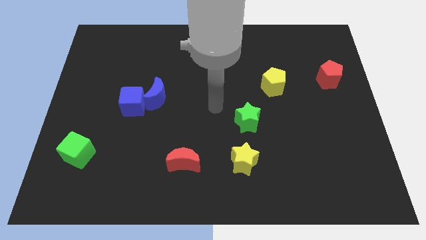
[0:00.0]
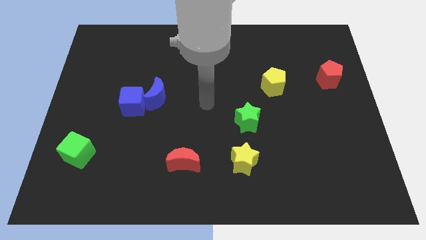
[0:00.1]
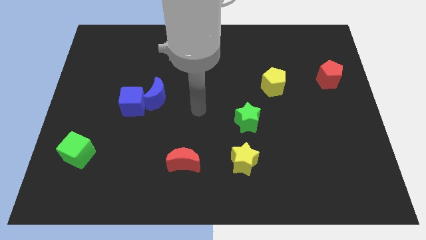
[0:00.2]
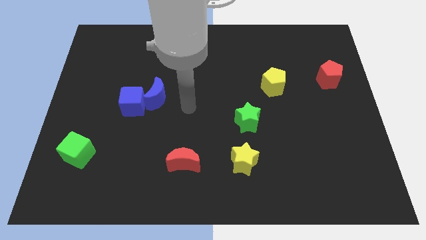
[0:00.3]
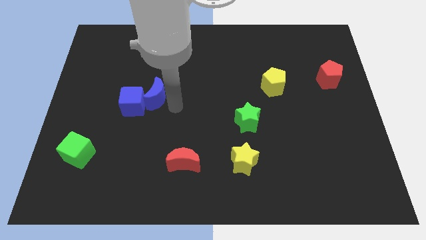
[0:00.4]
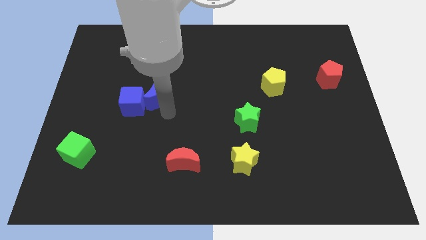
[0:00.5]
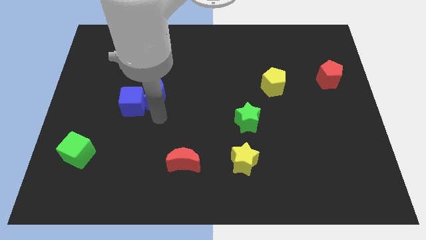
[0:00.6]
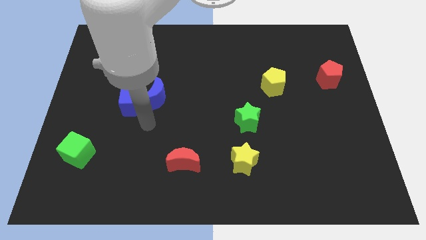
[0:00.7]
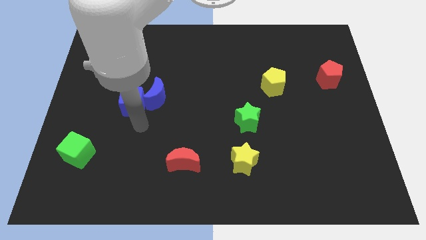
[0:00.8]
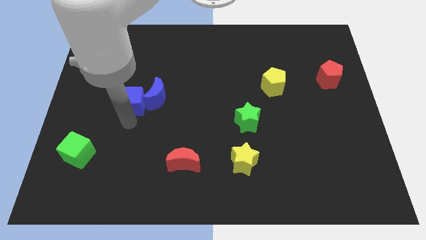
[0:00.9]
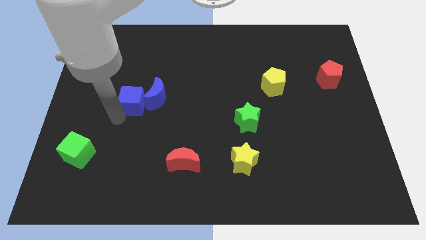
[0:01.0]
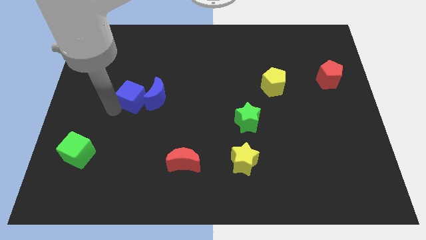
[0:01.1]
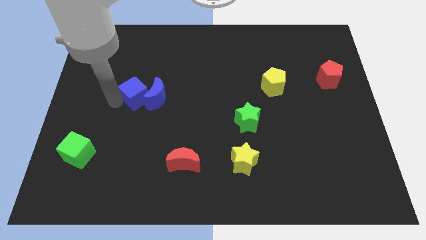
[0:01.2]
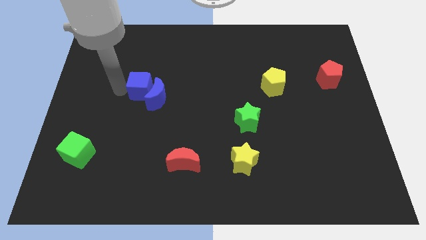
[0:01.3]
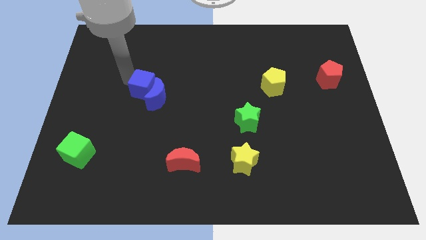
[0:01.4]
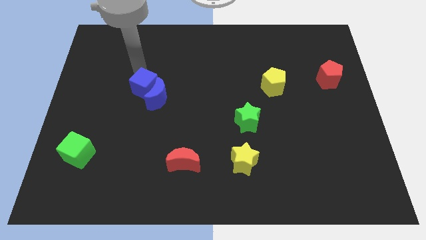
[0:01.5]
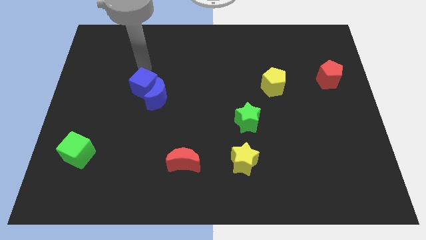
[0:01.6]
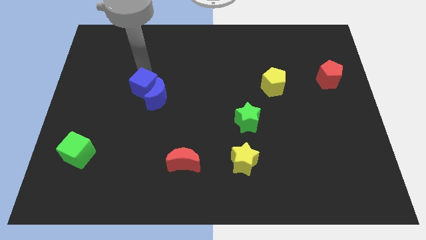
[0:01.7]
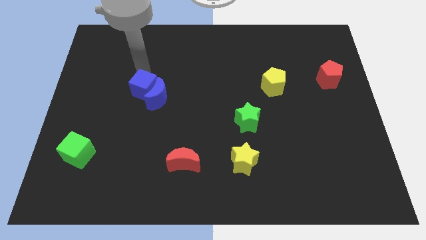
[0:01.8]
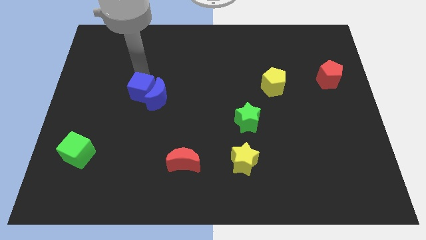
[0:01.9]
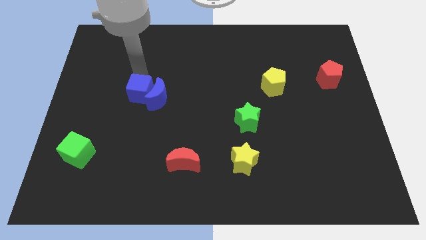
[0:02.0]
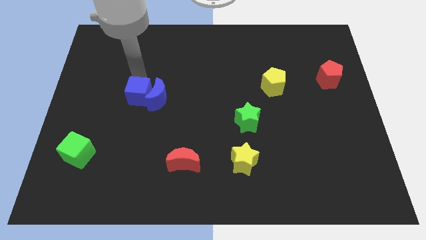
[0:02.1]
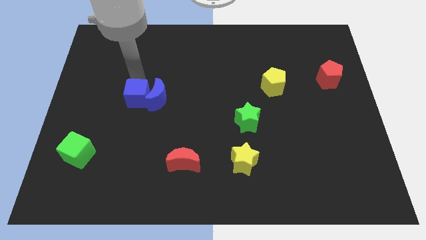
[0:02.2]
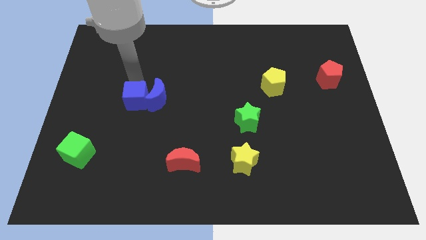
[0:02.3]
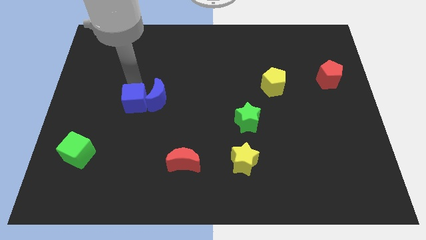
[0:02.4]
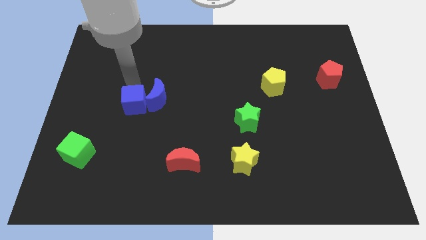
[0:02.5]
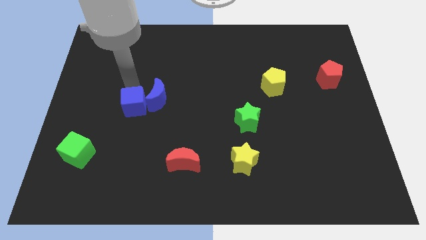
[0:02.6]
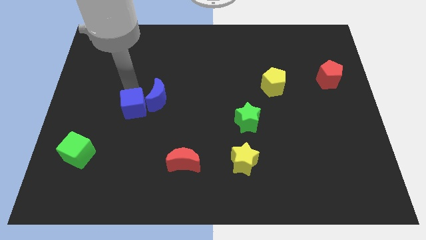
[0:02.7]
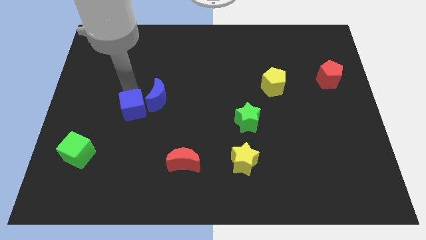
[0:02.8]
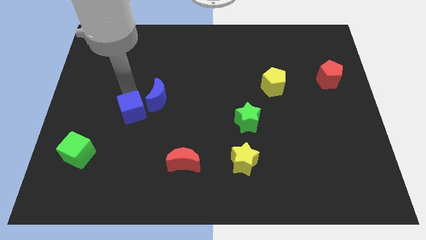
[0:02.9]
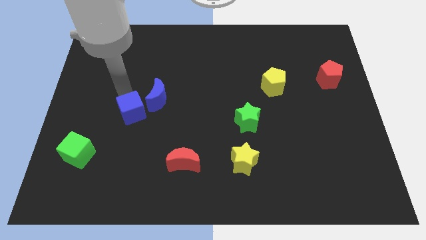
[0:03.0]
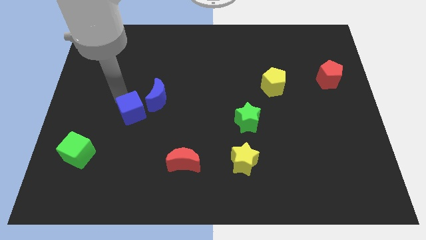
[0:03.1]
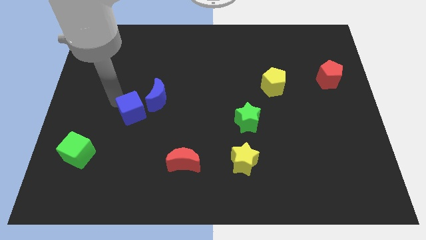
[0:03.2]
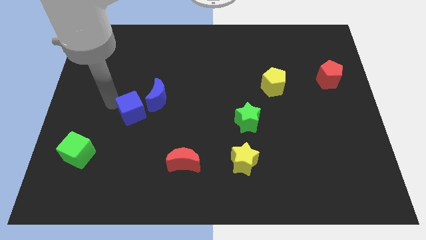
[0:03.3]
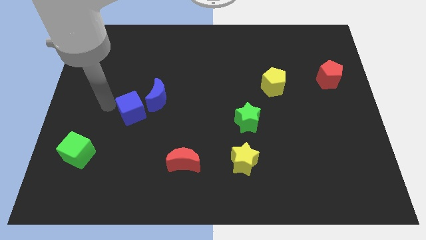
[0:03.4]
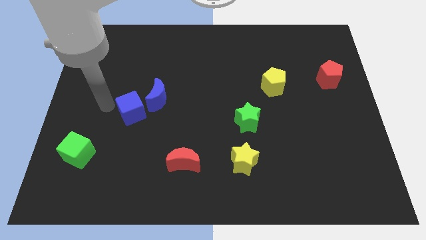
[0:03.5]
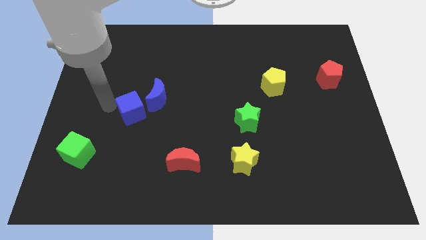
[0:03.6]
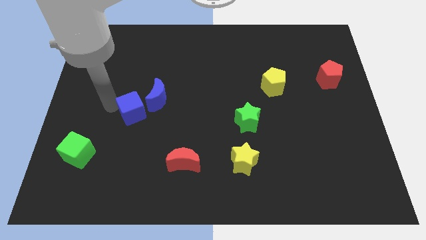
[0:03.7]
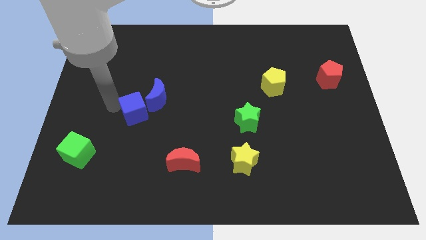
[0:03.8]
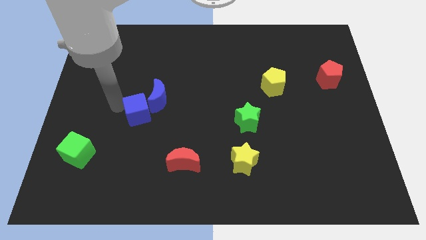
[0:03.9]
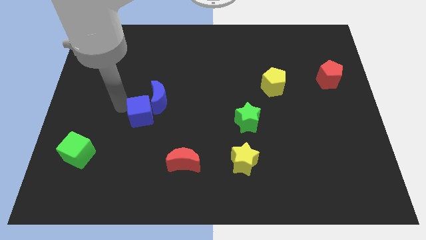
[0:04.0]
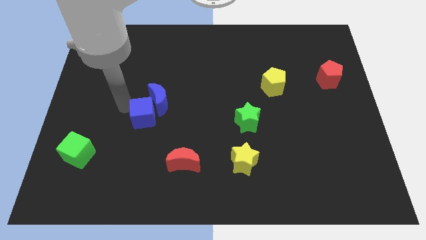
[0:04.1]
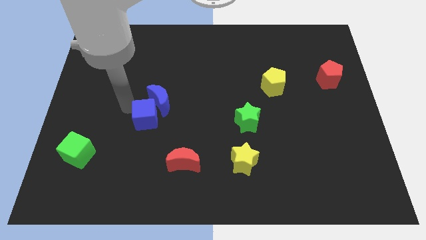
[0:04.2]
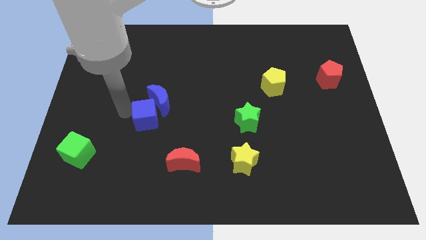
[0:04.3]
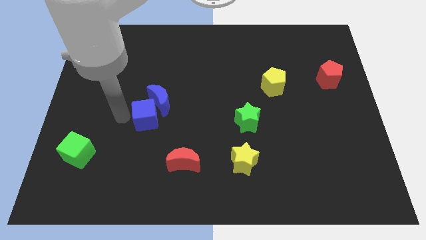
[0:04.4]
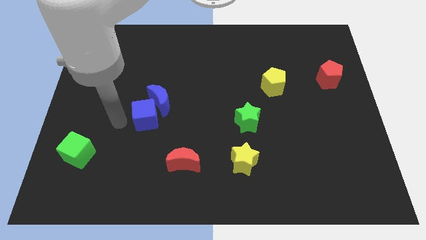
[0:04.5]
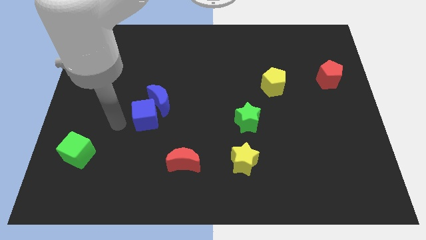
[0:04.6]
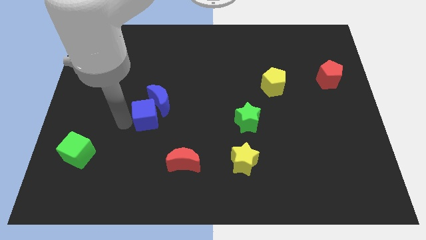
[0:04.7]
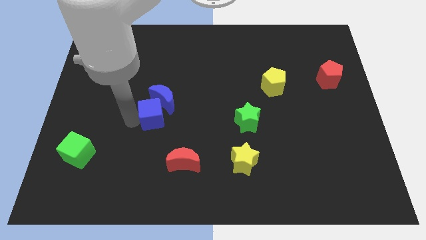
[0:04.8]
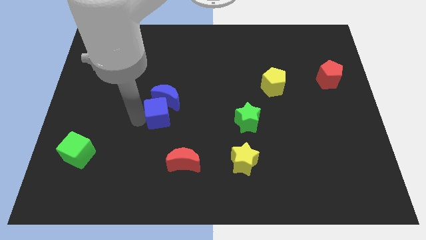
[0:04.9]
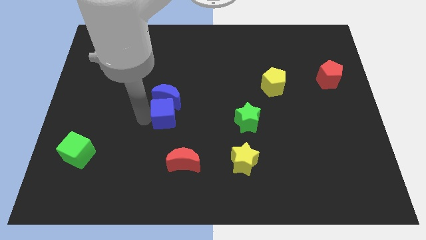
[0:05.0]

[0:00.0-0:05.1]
slide the blue cube to the center of the board

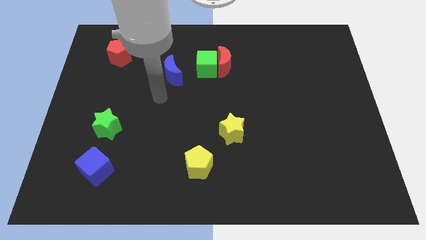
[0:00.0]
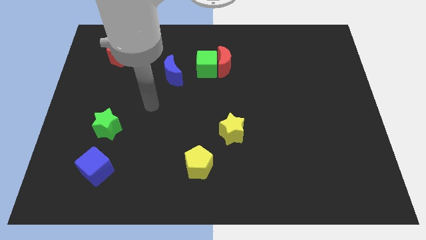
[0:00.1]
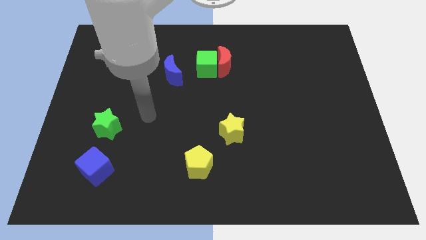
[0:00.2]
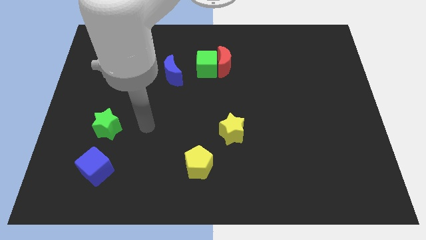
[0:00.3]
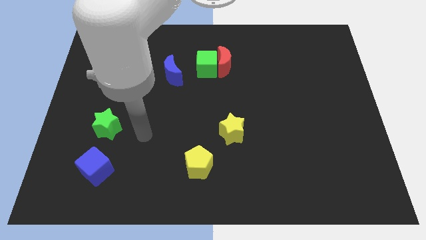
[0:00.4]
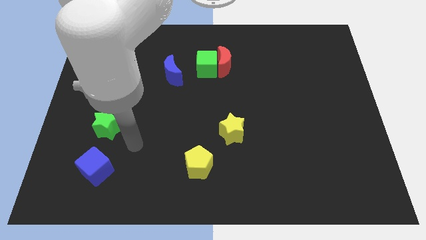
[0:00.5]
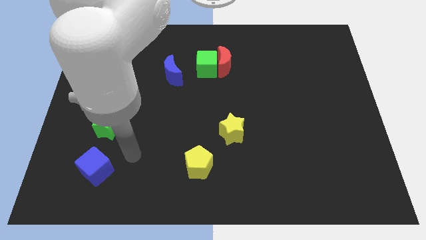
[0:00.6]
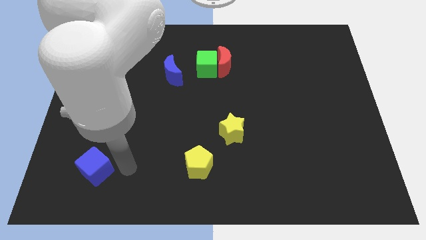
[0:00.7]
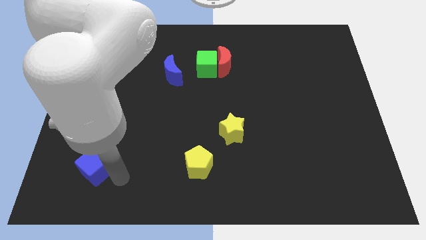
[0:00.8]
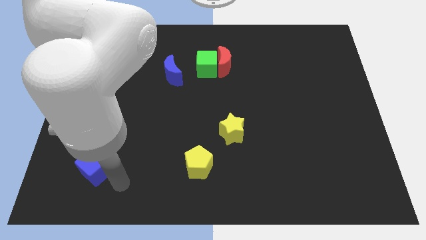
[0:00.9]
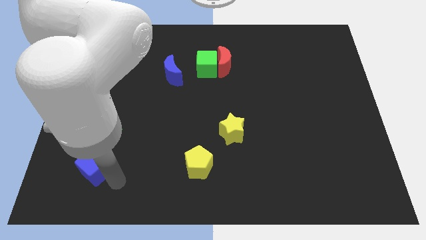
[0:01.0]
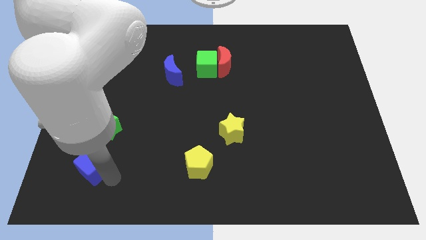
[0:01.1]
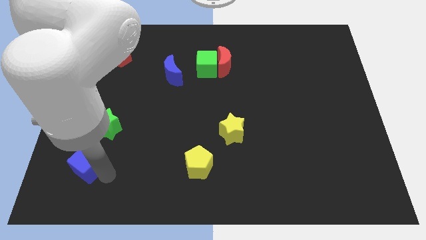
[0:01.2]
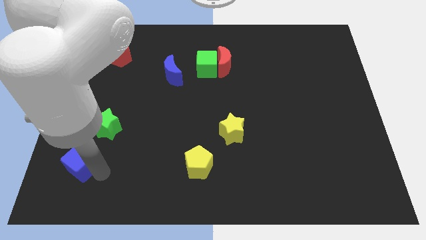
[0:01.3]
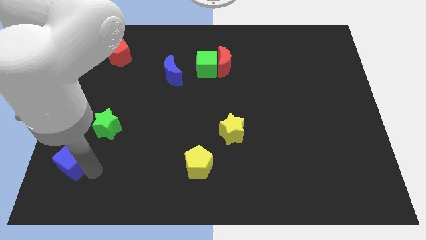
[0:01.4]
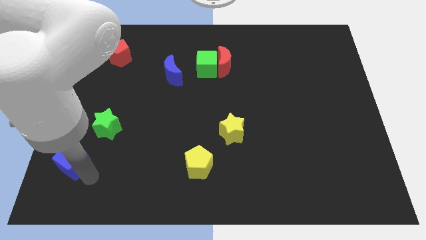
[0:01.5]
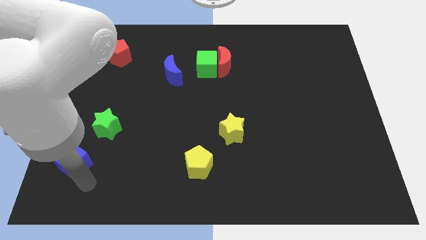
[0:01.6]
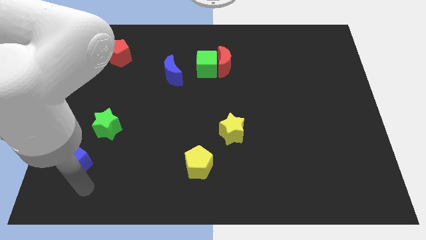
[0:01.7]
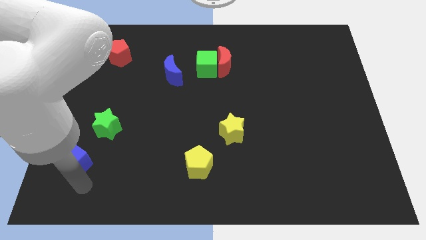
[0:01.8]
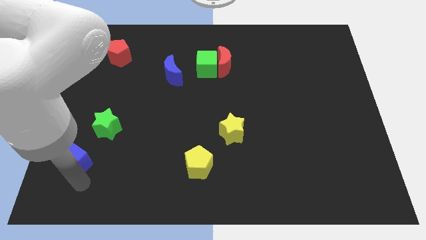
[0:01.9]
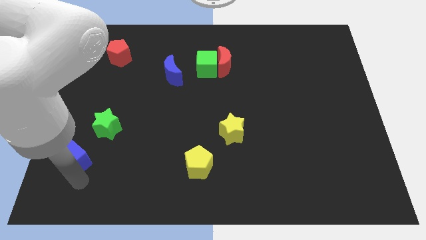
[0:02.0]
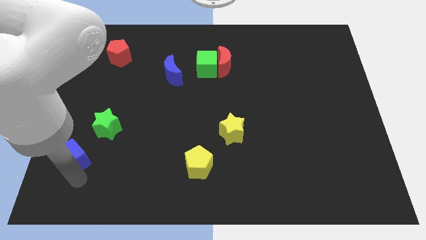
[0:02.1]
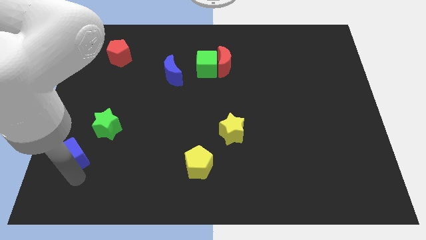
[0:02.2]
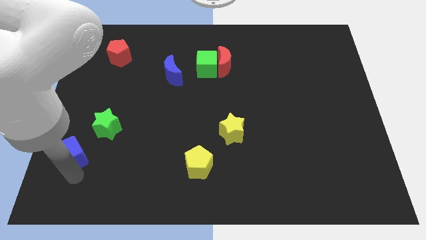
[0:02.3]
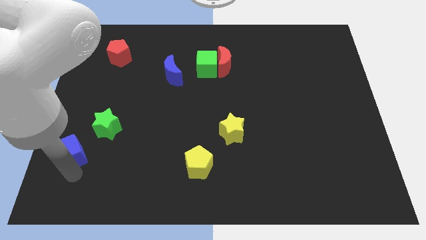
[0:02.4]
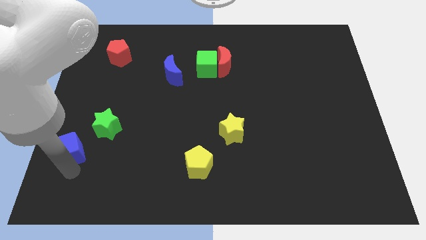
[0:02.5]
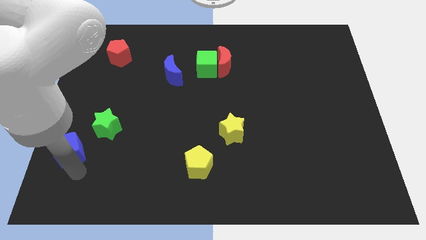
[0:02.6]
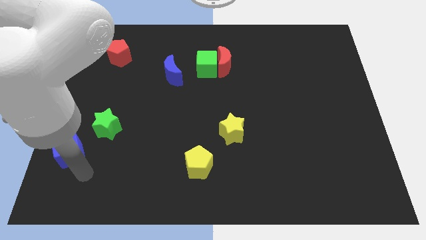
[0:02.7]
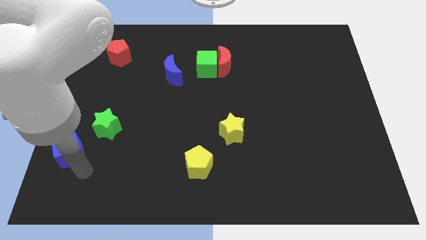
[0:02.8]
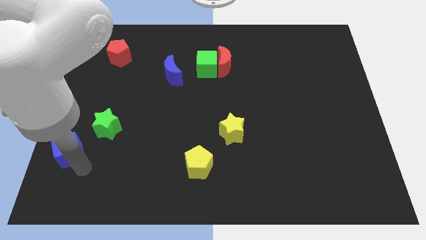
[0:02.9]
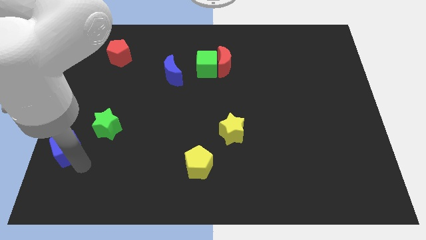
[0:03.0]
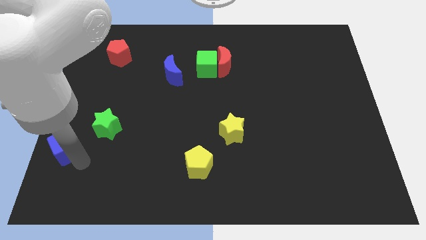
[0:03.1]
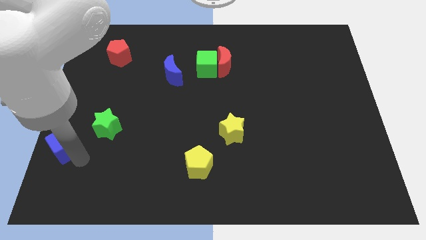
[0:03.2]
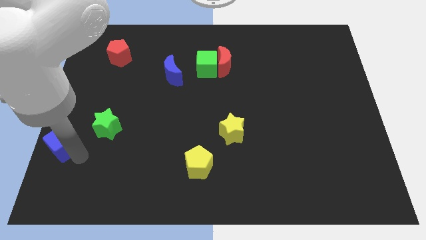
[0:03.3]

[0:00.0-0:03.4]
slide the blue cube to the left side of the board
